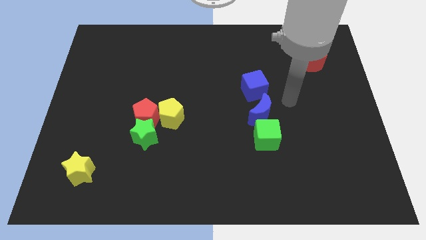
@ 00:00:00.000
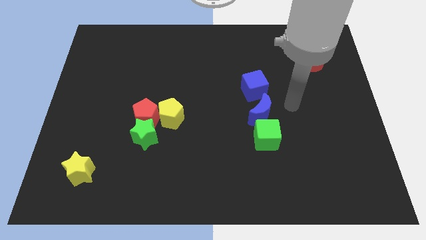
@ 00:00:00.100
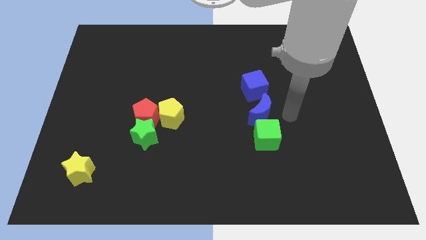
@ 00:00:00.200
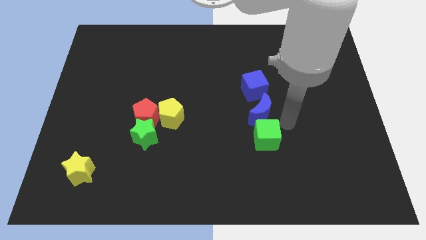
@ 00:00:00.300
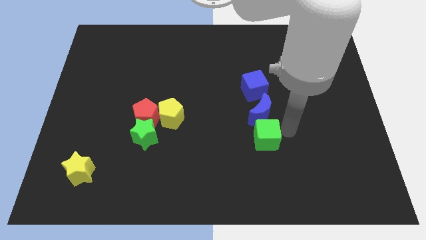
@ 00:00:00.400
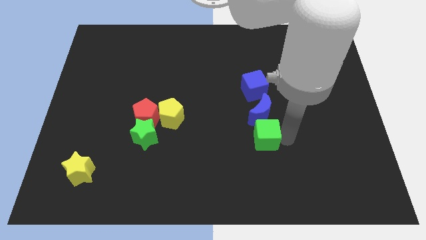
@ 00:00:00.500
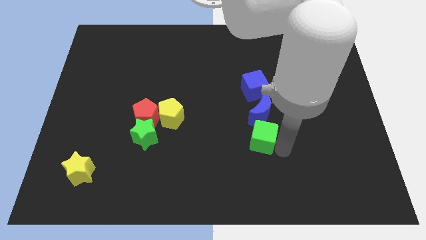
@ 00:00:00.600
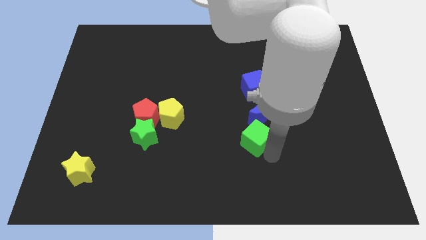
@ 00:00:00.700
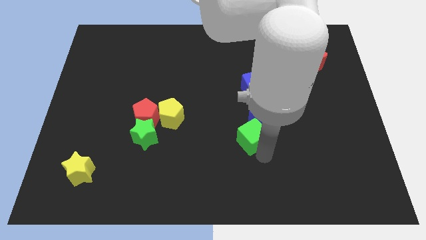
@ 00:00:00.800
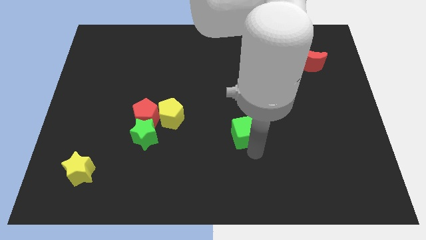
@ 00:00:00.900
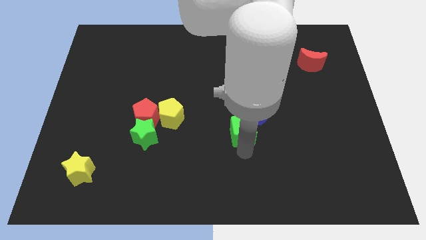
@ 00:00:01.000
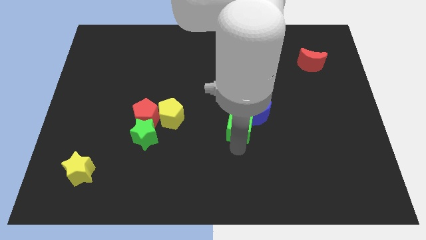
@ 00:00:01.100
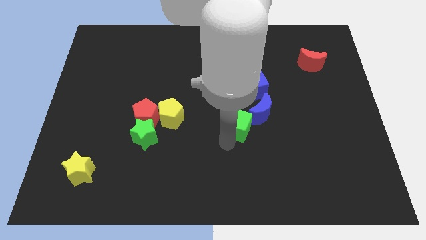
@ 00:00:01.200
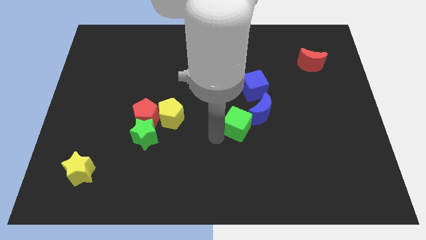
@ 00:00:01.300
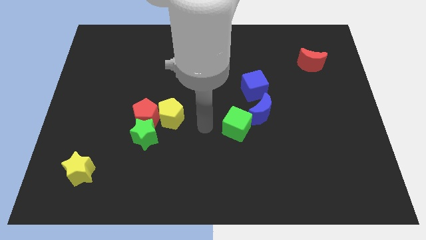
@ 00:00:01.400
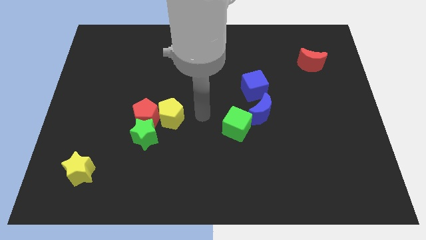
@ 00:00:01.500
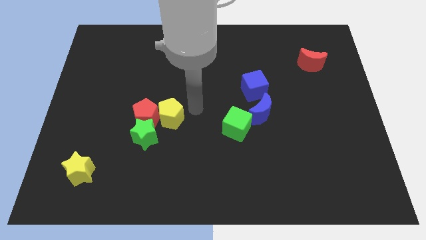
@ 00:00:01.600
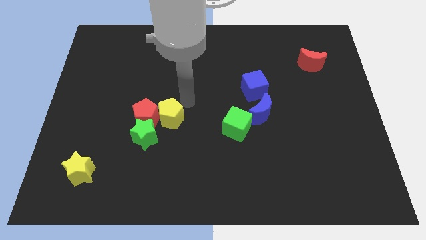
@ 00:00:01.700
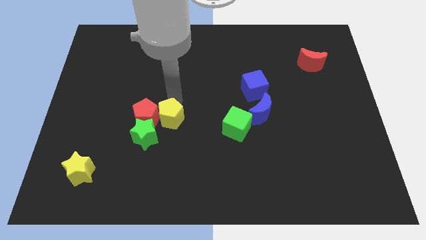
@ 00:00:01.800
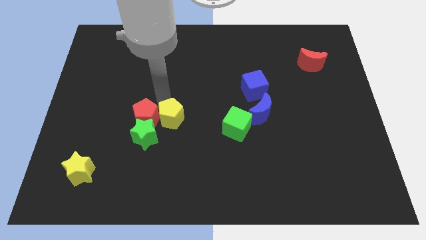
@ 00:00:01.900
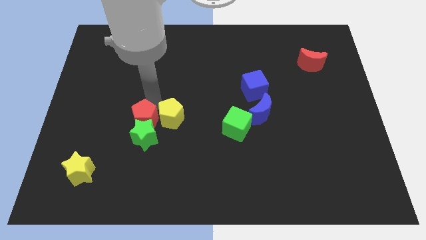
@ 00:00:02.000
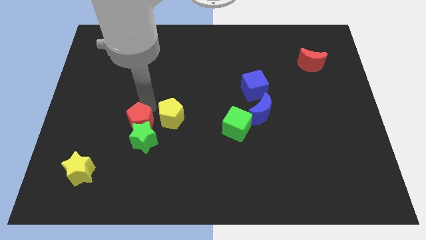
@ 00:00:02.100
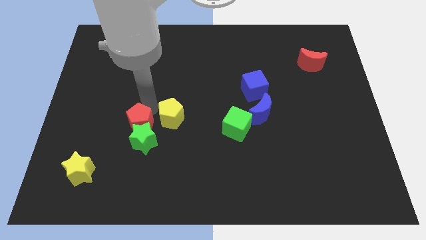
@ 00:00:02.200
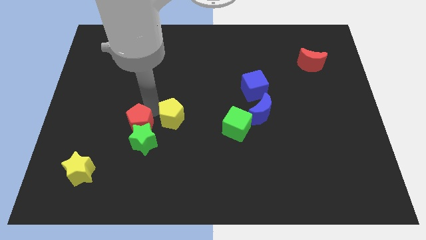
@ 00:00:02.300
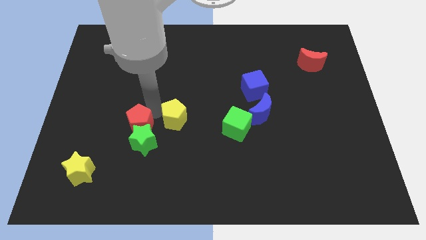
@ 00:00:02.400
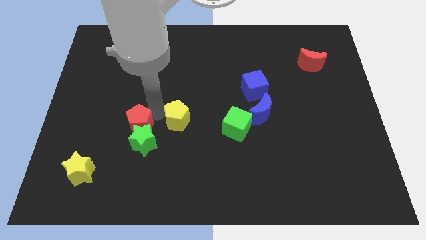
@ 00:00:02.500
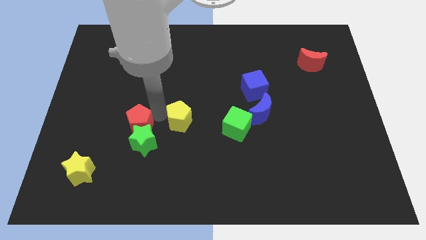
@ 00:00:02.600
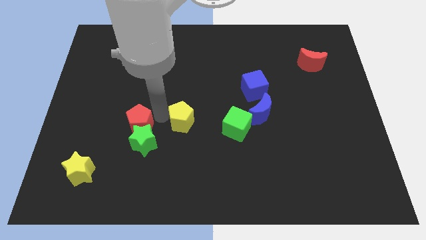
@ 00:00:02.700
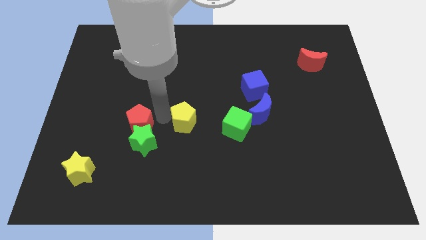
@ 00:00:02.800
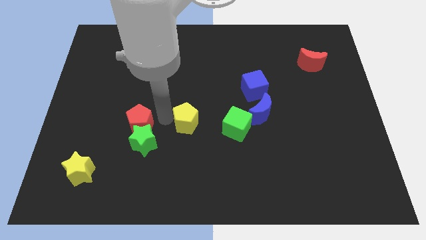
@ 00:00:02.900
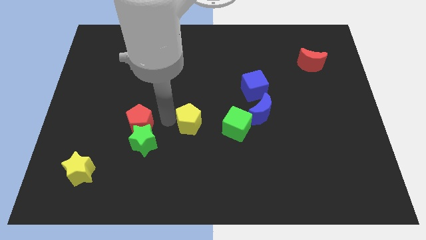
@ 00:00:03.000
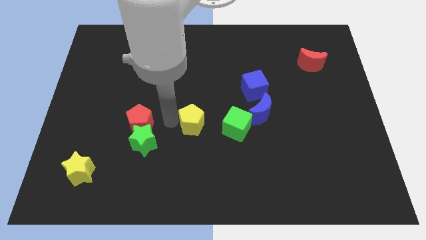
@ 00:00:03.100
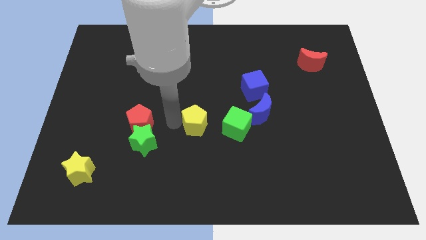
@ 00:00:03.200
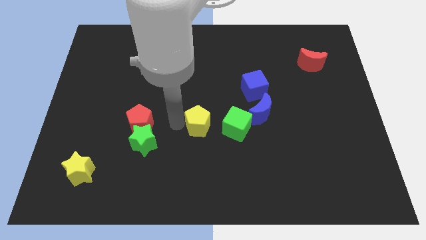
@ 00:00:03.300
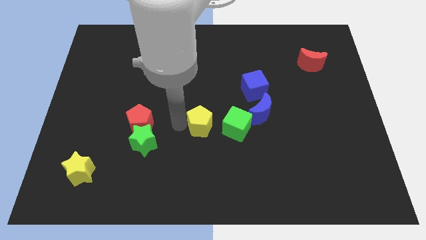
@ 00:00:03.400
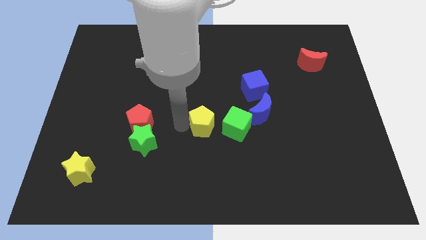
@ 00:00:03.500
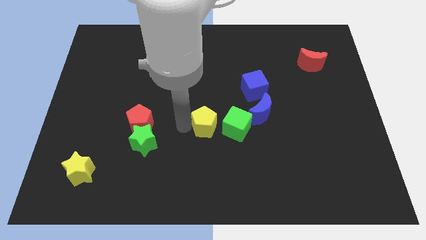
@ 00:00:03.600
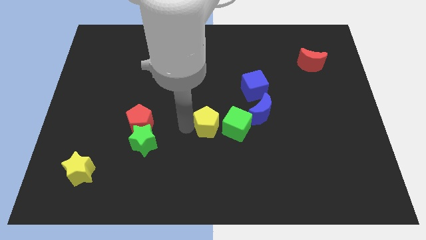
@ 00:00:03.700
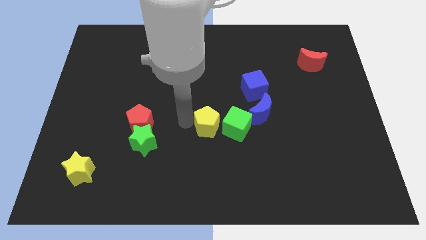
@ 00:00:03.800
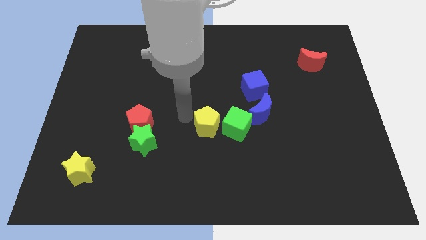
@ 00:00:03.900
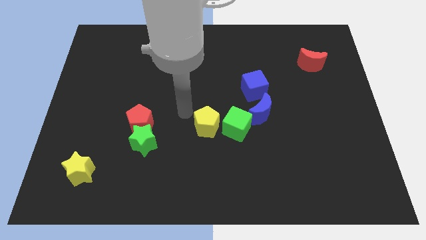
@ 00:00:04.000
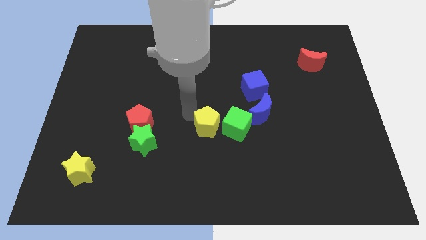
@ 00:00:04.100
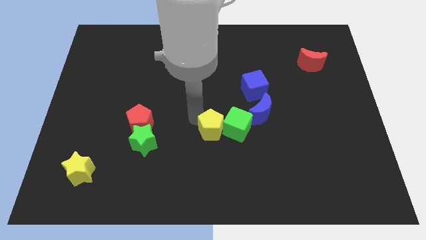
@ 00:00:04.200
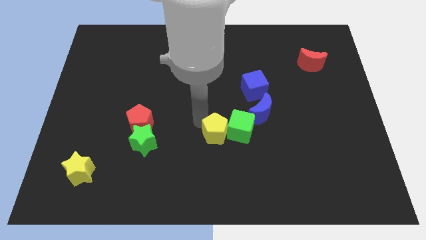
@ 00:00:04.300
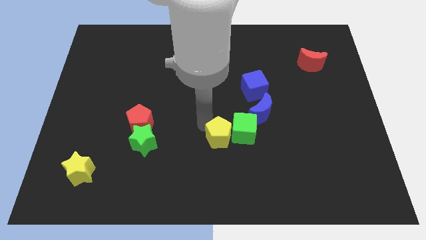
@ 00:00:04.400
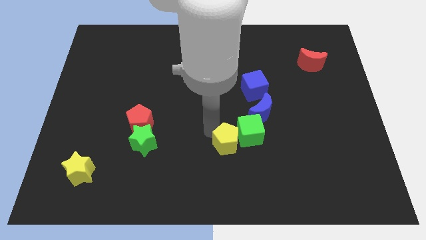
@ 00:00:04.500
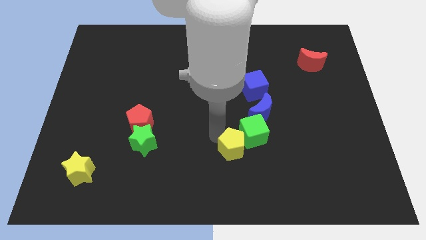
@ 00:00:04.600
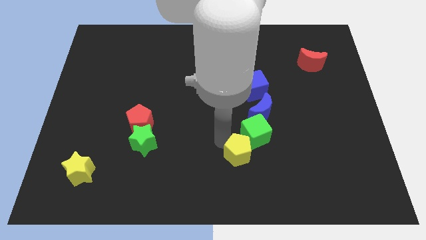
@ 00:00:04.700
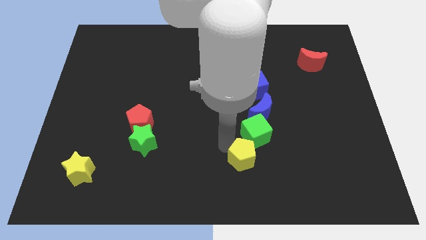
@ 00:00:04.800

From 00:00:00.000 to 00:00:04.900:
push the yellow pentagon to the bottom side of the blue moon

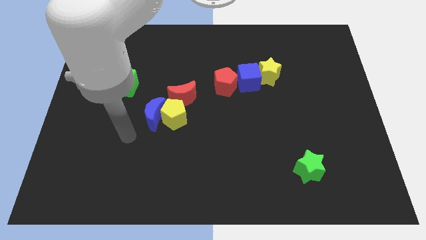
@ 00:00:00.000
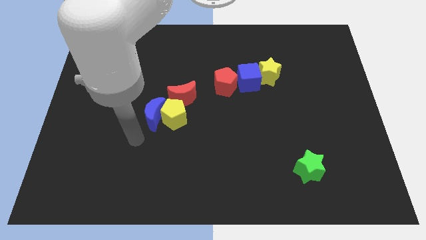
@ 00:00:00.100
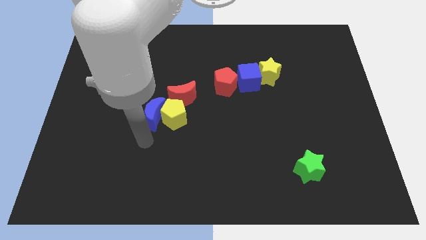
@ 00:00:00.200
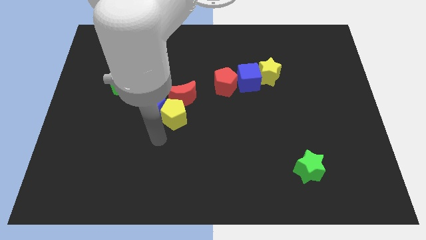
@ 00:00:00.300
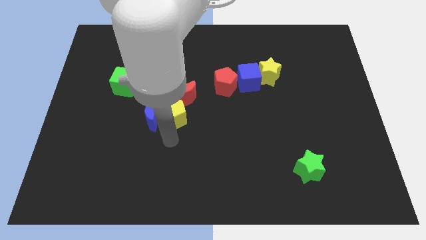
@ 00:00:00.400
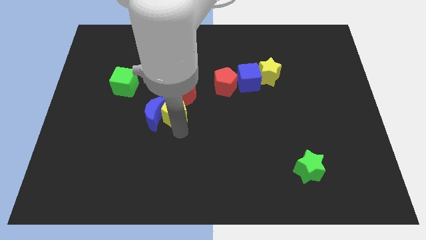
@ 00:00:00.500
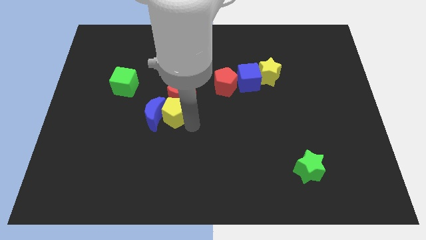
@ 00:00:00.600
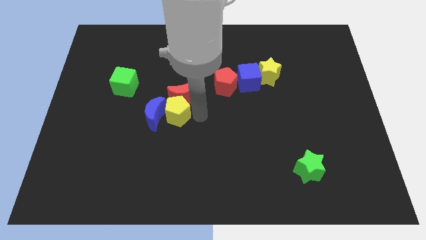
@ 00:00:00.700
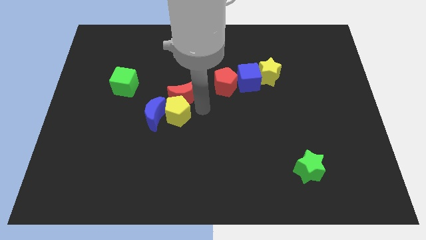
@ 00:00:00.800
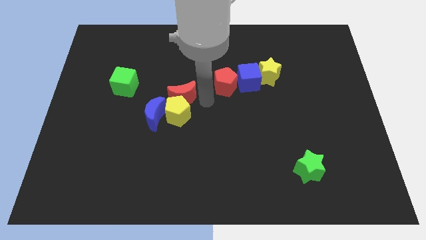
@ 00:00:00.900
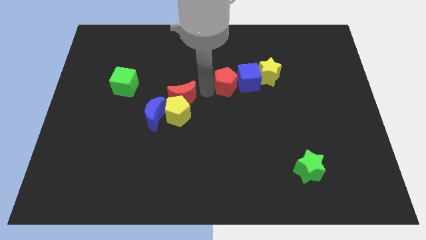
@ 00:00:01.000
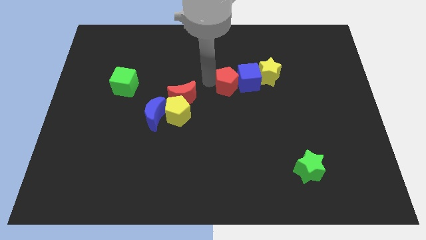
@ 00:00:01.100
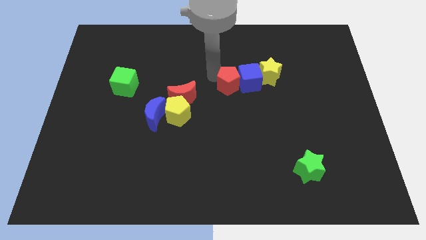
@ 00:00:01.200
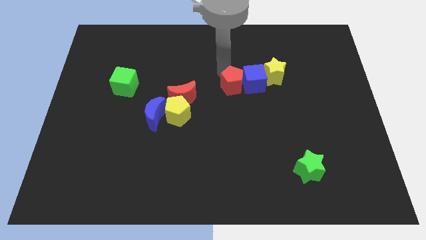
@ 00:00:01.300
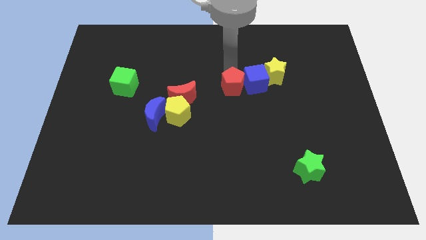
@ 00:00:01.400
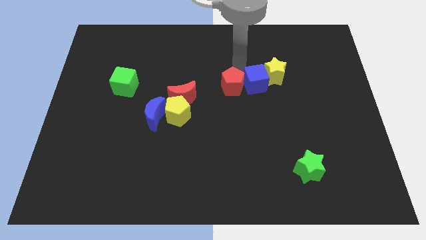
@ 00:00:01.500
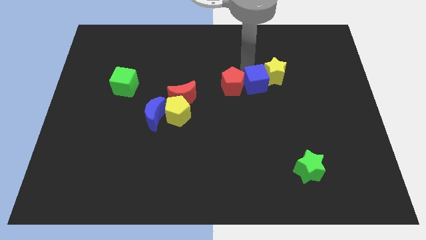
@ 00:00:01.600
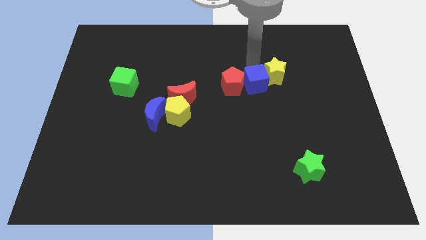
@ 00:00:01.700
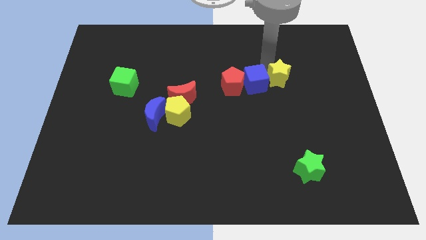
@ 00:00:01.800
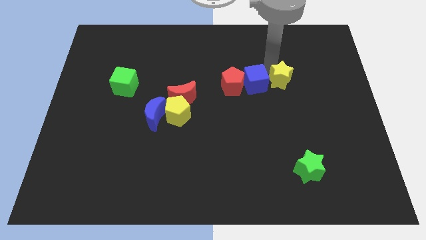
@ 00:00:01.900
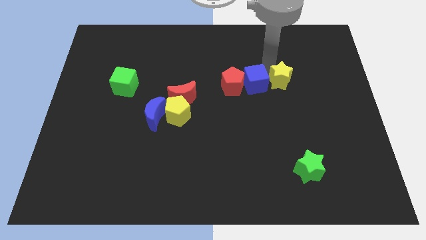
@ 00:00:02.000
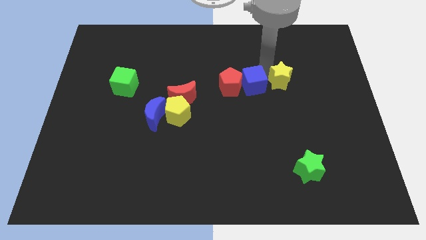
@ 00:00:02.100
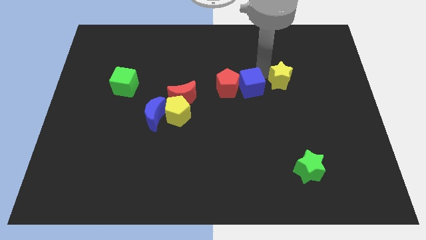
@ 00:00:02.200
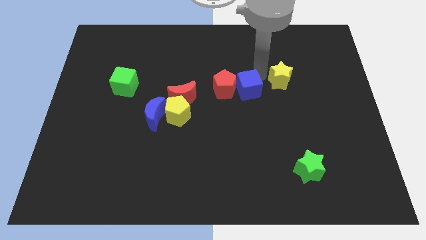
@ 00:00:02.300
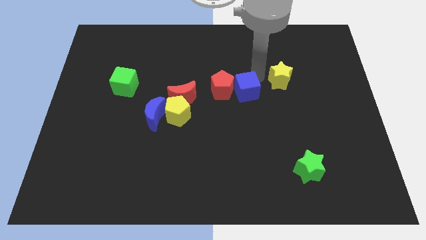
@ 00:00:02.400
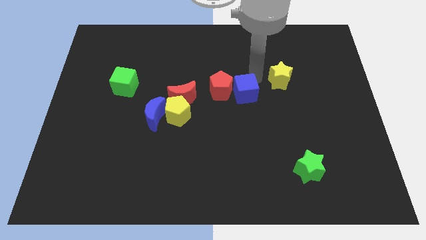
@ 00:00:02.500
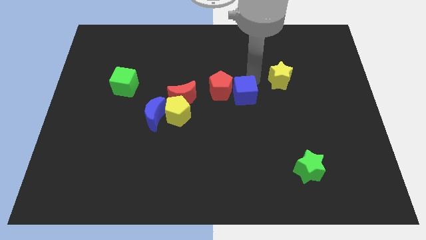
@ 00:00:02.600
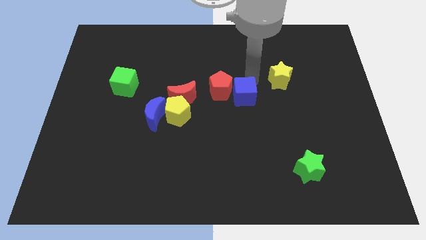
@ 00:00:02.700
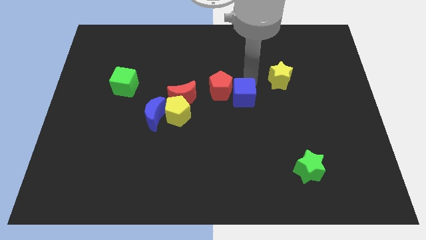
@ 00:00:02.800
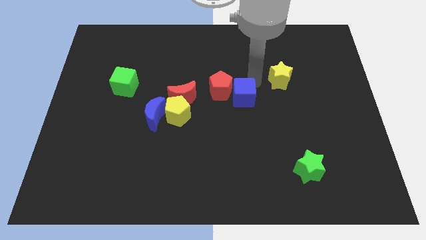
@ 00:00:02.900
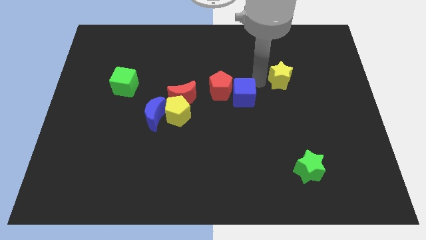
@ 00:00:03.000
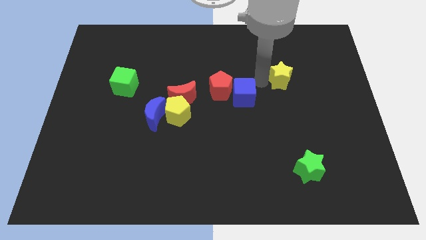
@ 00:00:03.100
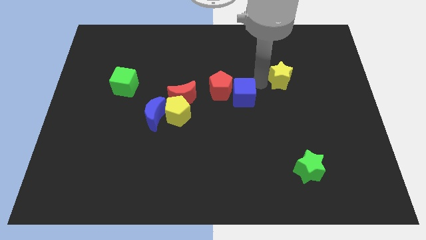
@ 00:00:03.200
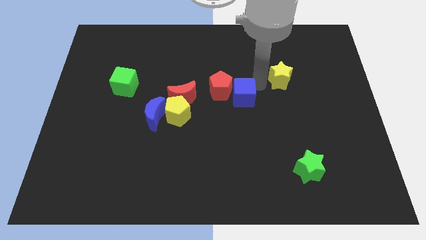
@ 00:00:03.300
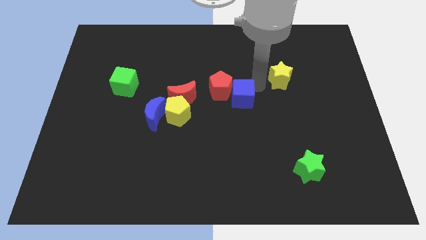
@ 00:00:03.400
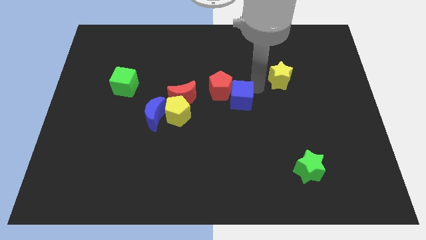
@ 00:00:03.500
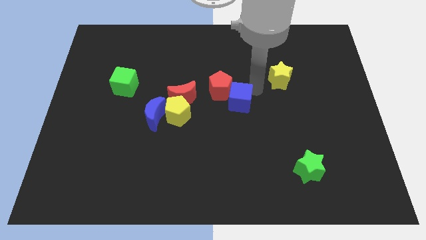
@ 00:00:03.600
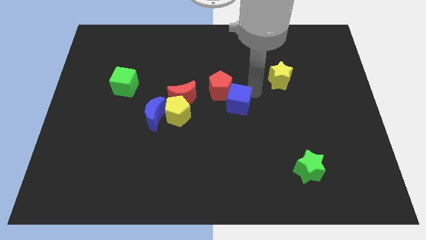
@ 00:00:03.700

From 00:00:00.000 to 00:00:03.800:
slide the blue cube just right of the yellow pentagon
